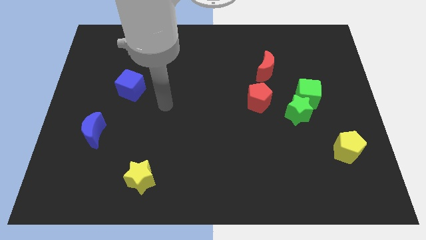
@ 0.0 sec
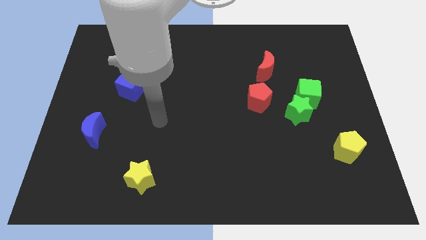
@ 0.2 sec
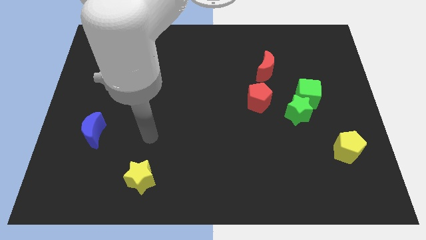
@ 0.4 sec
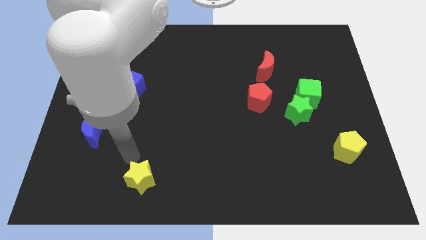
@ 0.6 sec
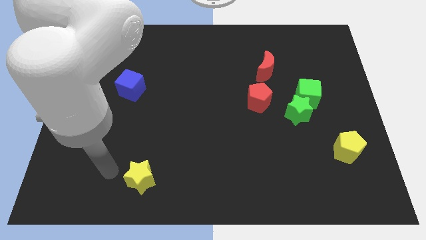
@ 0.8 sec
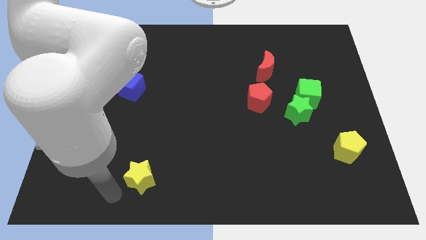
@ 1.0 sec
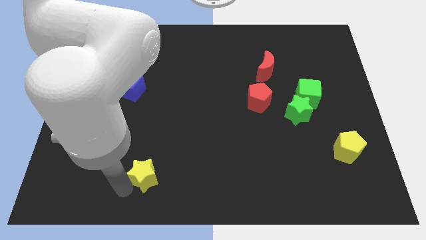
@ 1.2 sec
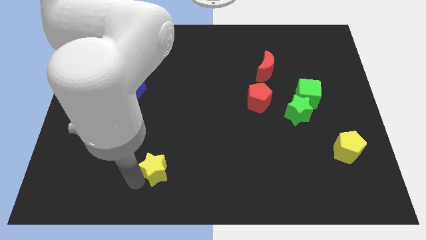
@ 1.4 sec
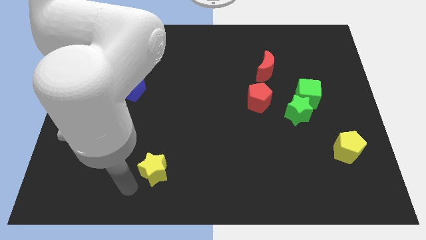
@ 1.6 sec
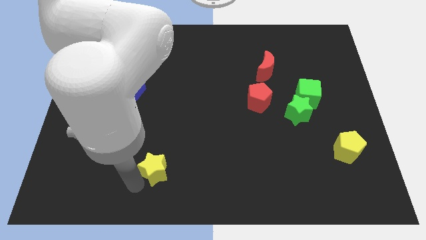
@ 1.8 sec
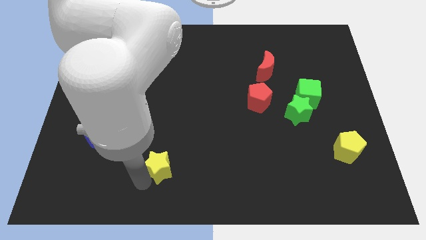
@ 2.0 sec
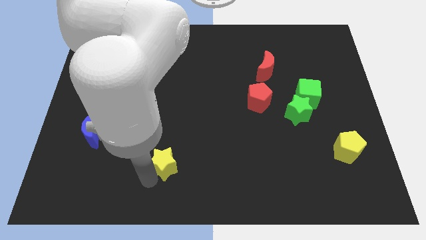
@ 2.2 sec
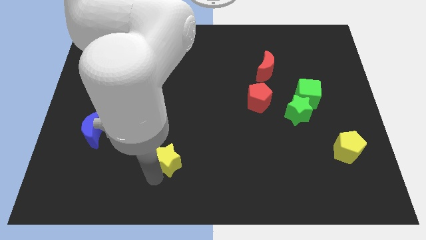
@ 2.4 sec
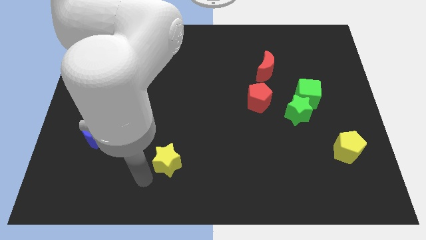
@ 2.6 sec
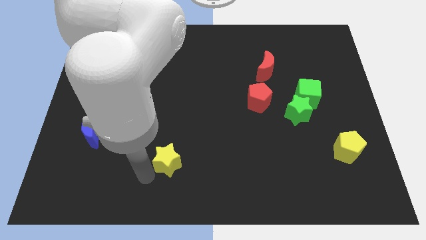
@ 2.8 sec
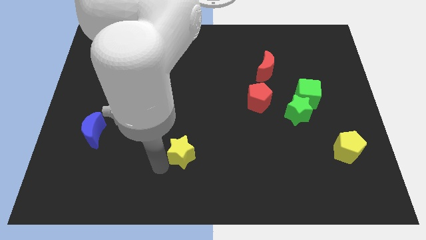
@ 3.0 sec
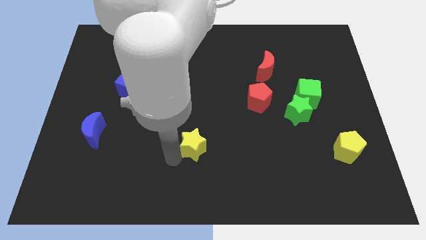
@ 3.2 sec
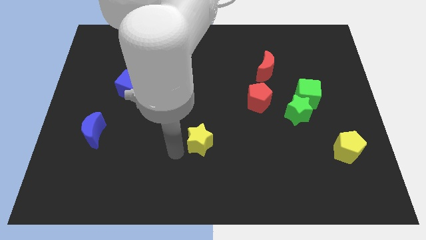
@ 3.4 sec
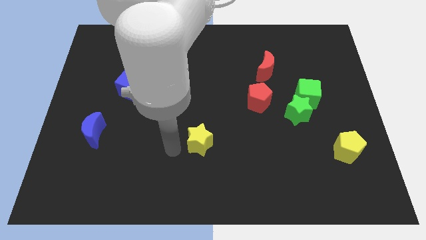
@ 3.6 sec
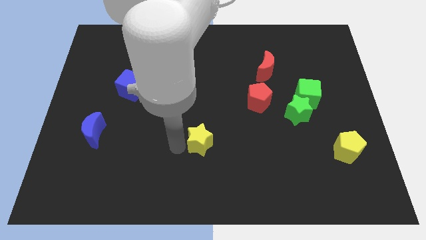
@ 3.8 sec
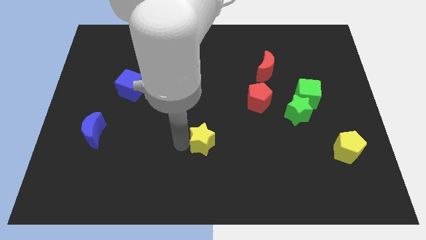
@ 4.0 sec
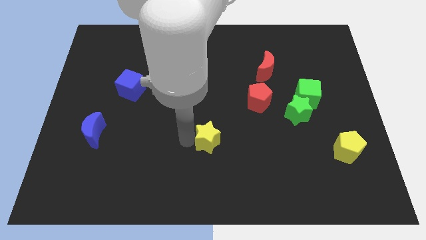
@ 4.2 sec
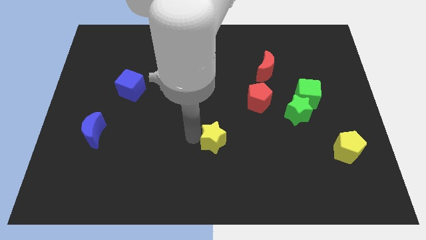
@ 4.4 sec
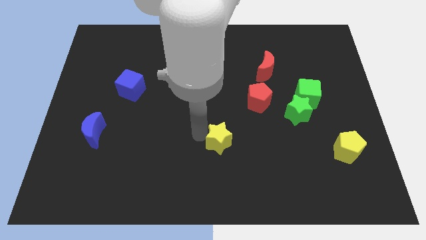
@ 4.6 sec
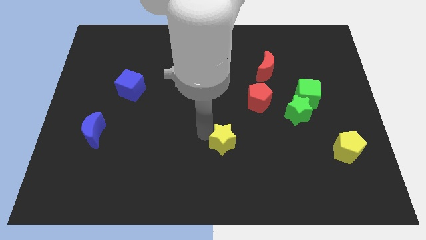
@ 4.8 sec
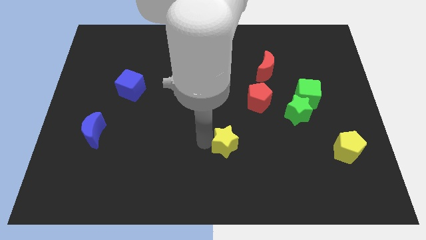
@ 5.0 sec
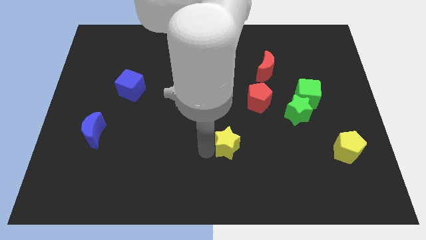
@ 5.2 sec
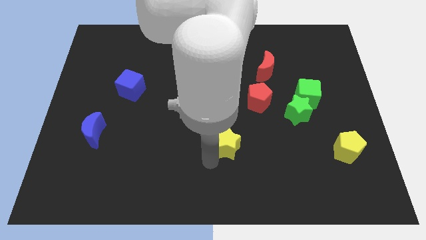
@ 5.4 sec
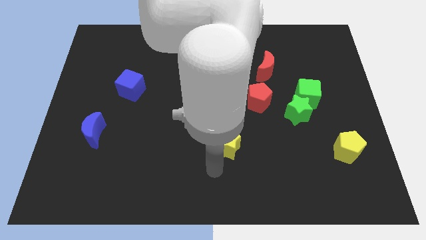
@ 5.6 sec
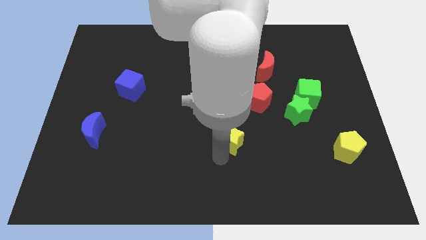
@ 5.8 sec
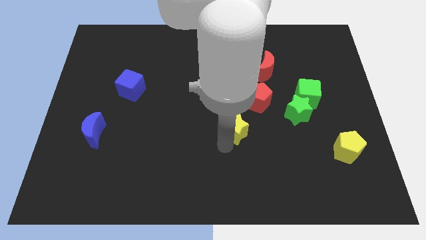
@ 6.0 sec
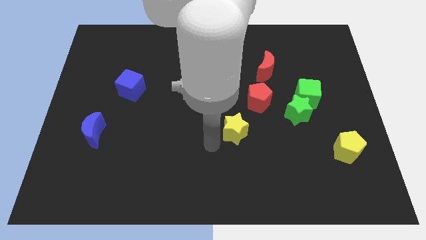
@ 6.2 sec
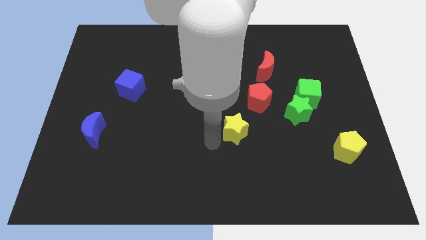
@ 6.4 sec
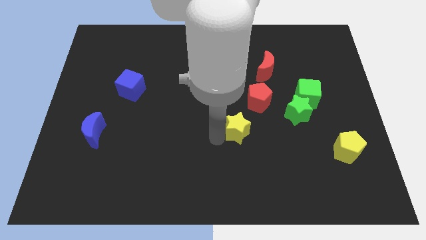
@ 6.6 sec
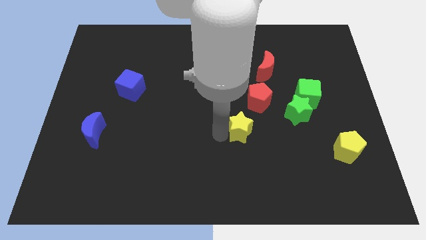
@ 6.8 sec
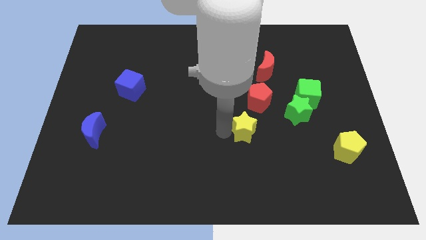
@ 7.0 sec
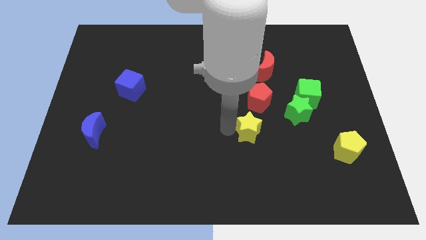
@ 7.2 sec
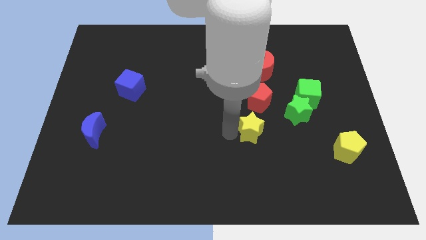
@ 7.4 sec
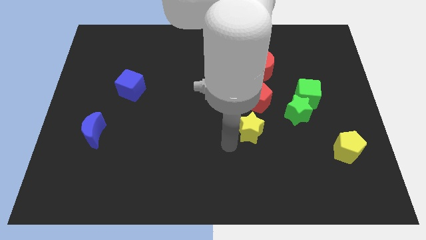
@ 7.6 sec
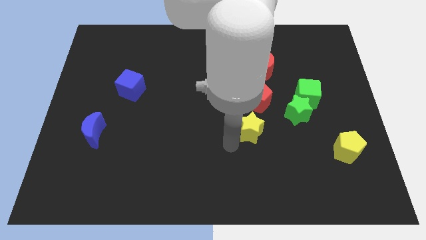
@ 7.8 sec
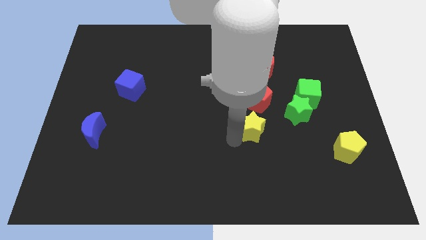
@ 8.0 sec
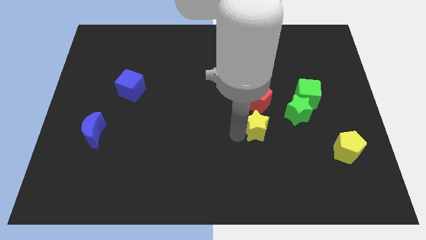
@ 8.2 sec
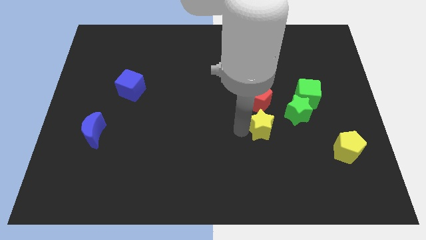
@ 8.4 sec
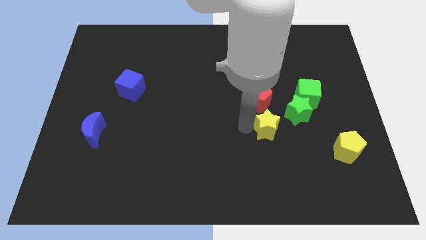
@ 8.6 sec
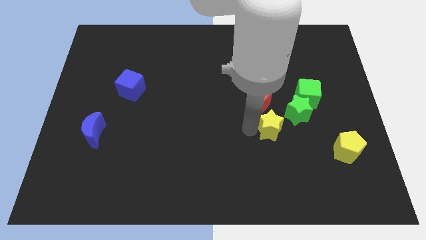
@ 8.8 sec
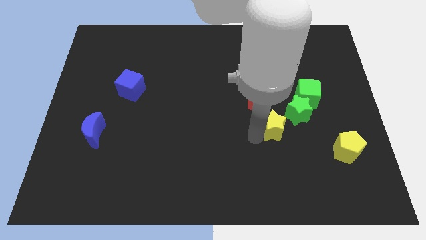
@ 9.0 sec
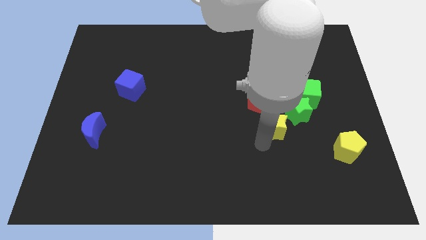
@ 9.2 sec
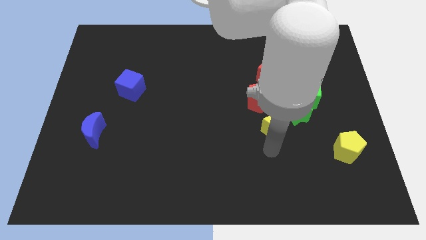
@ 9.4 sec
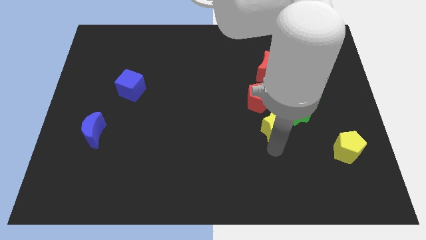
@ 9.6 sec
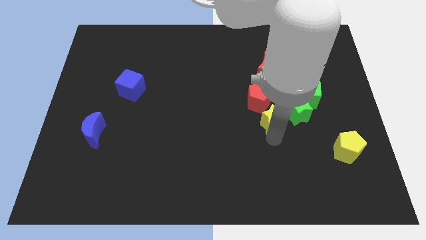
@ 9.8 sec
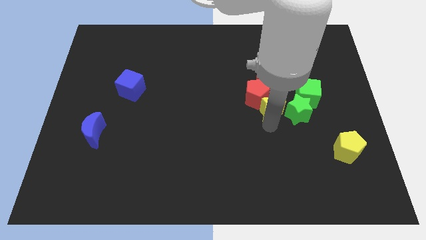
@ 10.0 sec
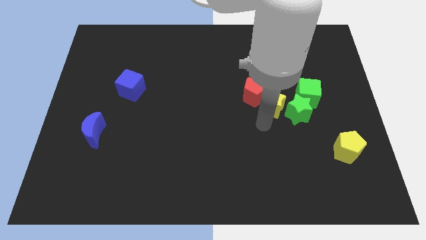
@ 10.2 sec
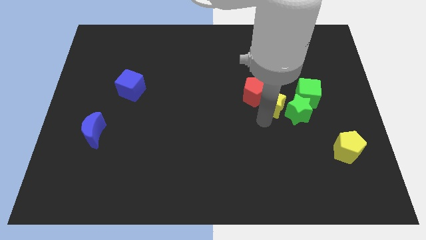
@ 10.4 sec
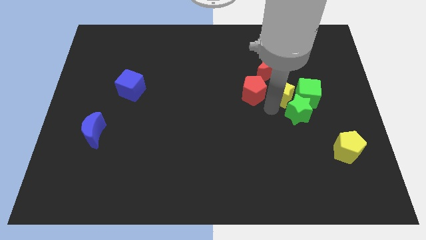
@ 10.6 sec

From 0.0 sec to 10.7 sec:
move the yellow star diagonally up and to the left of the green cube

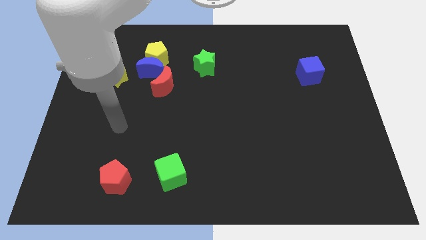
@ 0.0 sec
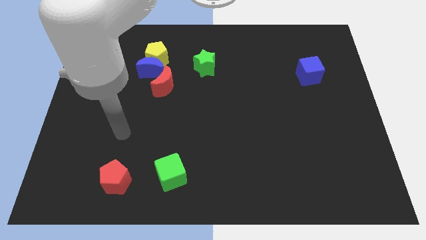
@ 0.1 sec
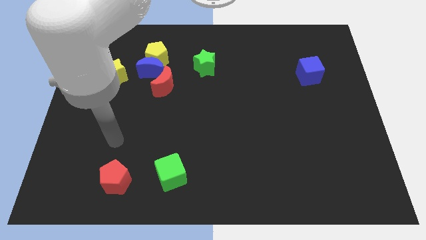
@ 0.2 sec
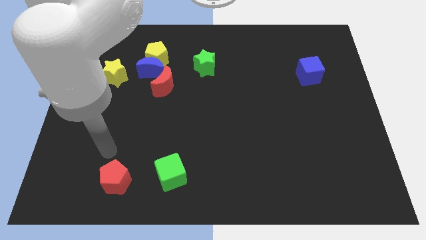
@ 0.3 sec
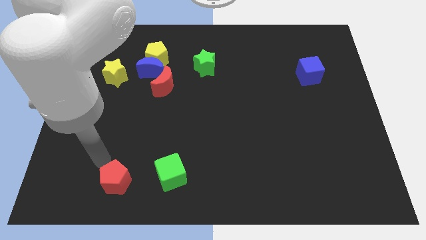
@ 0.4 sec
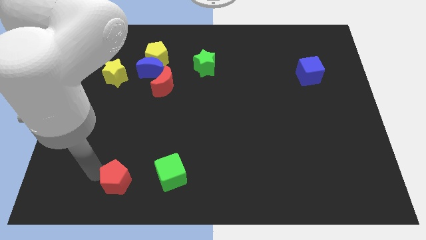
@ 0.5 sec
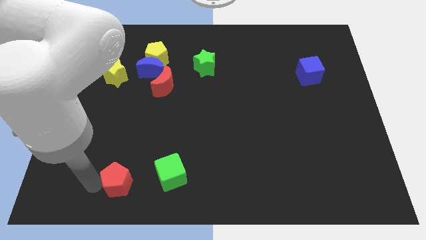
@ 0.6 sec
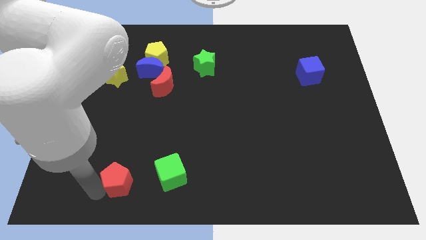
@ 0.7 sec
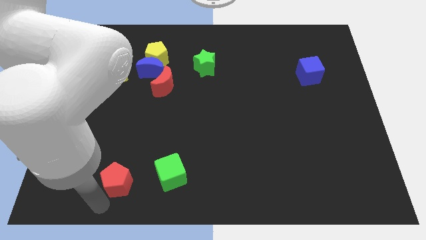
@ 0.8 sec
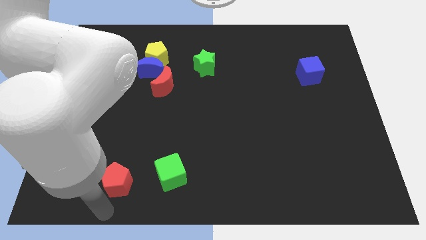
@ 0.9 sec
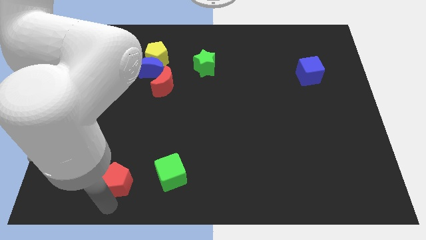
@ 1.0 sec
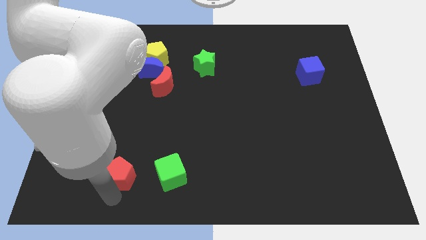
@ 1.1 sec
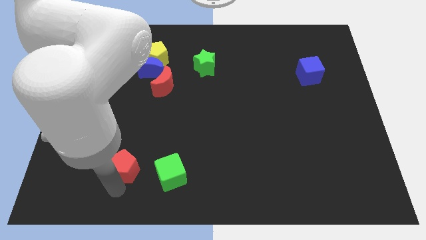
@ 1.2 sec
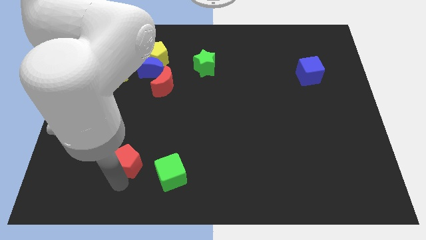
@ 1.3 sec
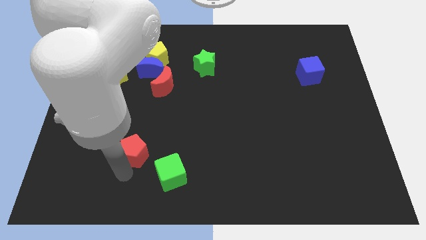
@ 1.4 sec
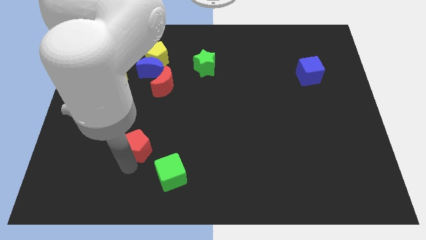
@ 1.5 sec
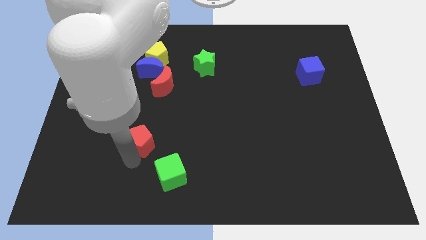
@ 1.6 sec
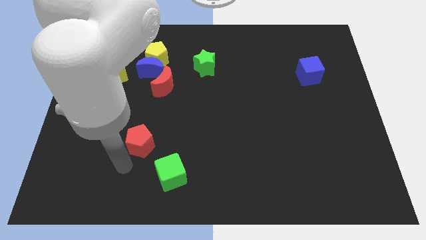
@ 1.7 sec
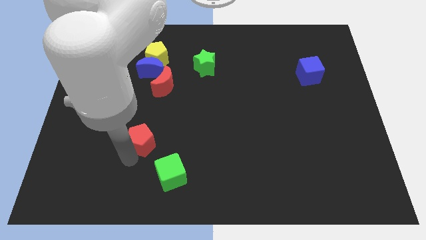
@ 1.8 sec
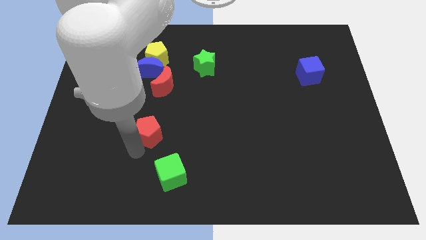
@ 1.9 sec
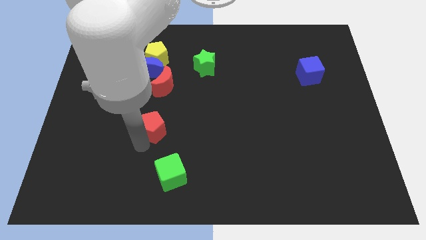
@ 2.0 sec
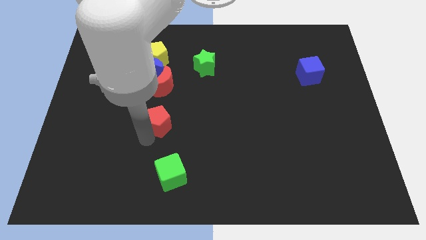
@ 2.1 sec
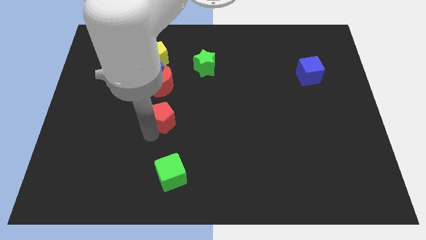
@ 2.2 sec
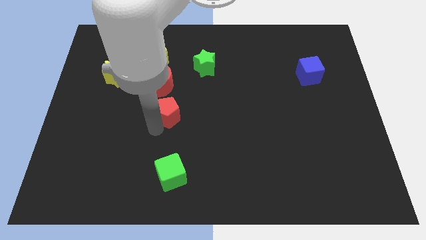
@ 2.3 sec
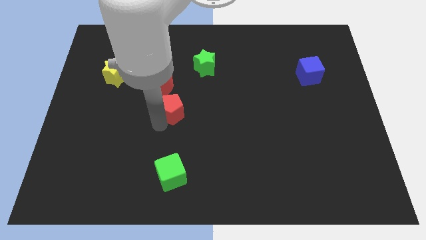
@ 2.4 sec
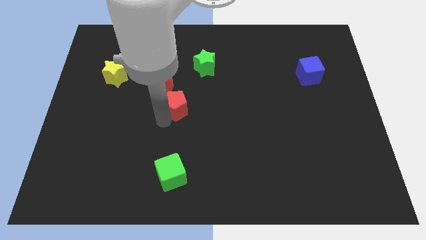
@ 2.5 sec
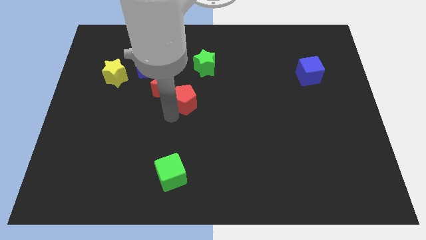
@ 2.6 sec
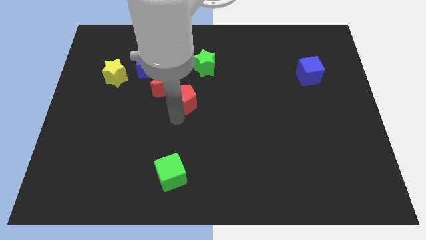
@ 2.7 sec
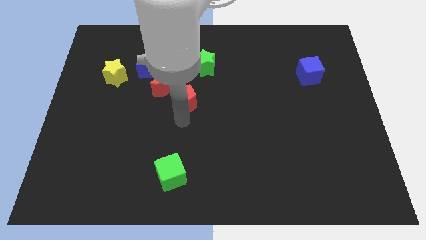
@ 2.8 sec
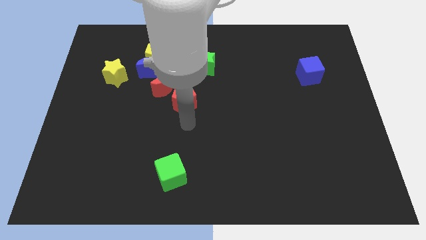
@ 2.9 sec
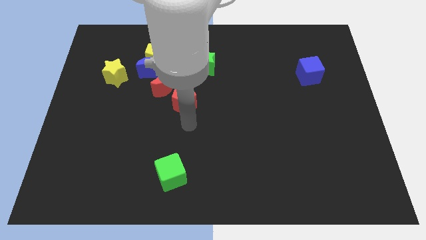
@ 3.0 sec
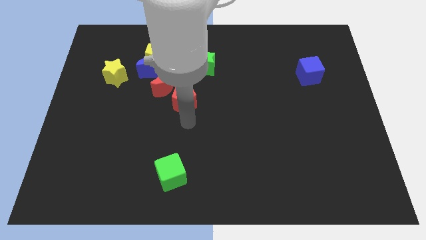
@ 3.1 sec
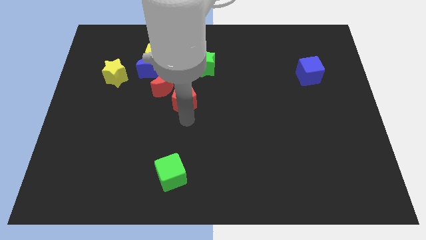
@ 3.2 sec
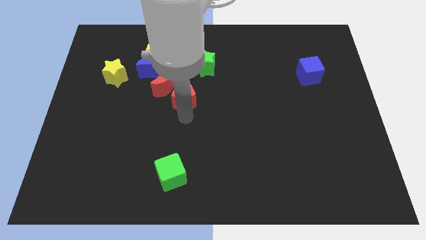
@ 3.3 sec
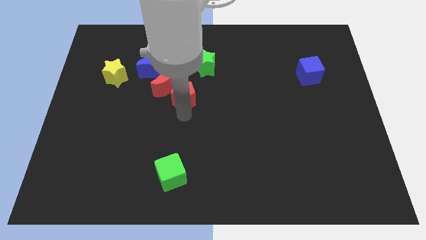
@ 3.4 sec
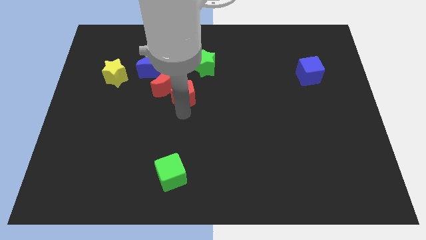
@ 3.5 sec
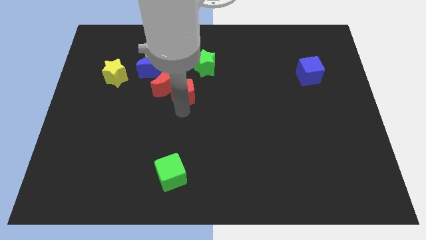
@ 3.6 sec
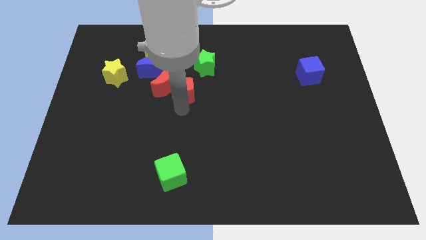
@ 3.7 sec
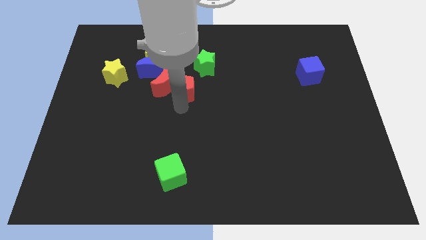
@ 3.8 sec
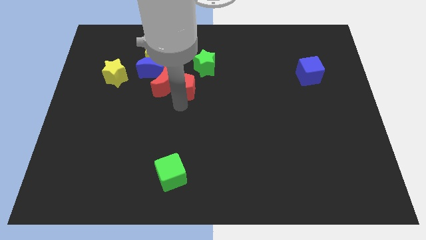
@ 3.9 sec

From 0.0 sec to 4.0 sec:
put the red pentagon to the top right of the red moon
